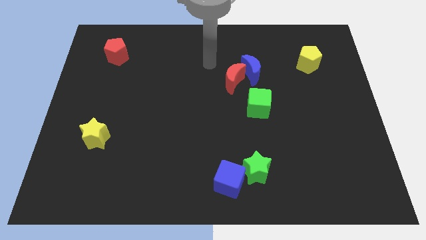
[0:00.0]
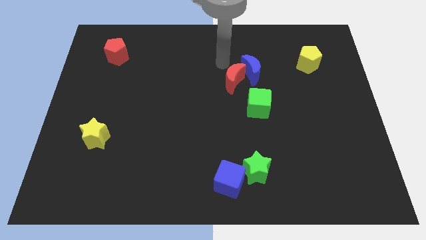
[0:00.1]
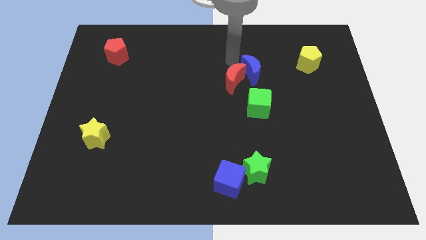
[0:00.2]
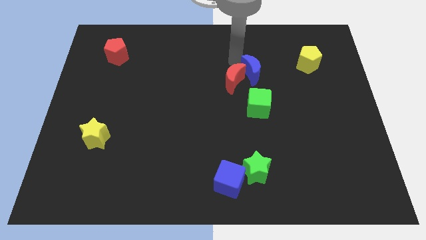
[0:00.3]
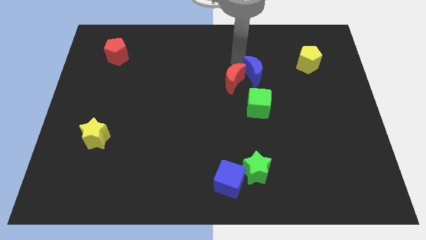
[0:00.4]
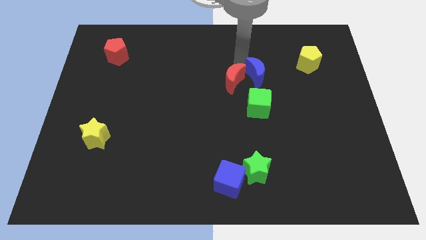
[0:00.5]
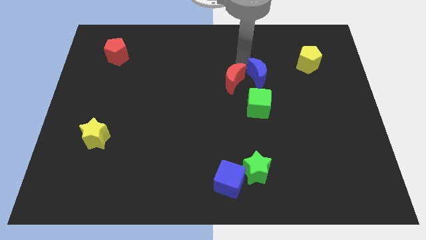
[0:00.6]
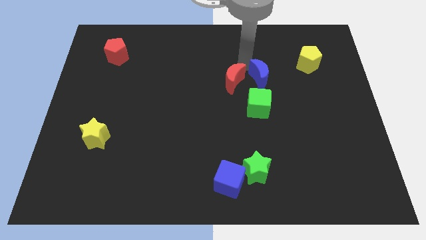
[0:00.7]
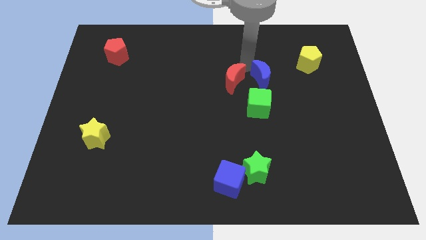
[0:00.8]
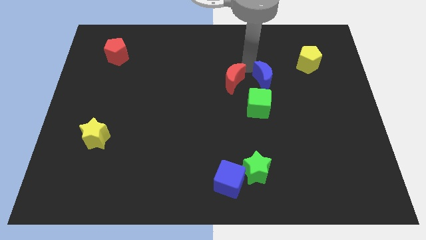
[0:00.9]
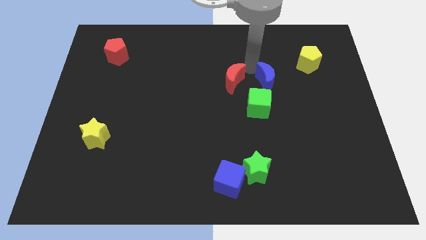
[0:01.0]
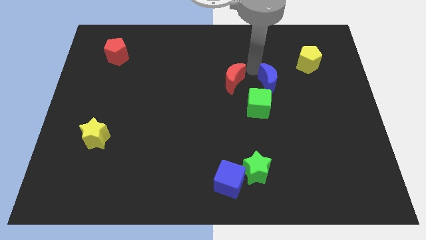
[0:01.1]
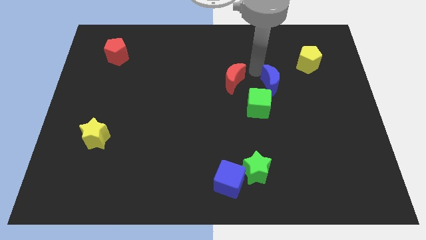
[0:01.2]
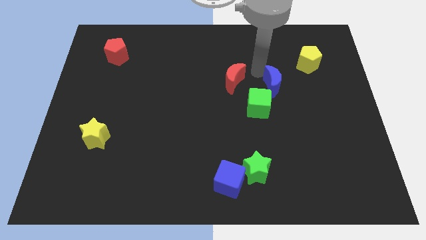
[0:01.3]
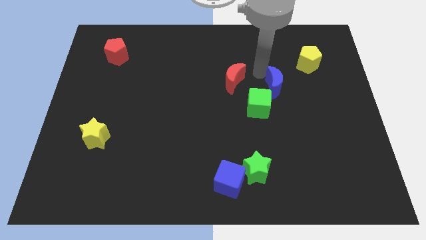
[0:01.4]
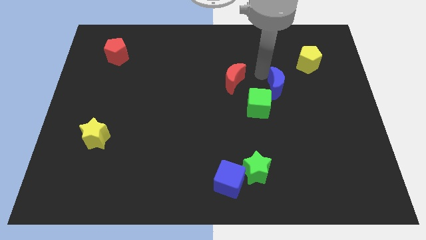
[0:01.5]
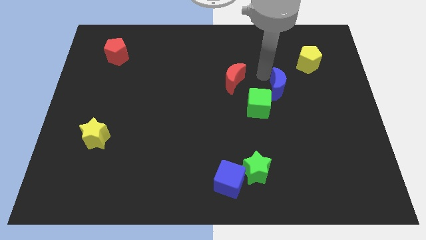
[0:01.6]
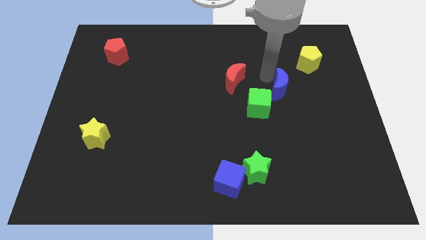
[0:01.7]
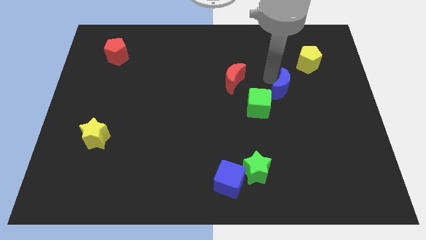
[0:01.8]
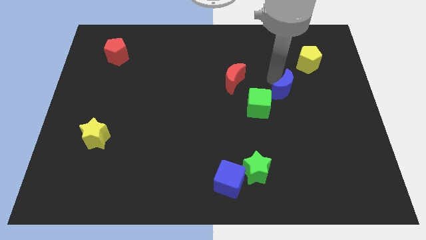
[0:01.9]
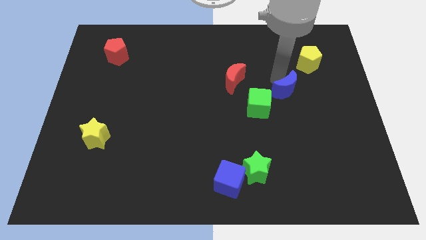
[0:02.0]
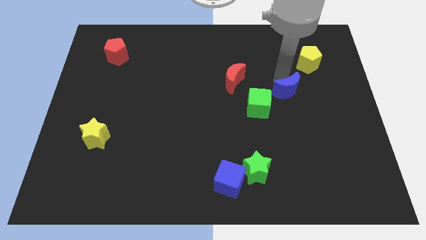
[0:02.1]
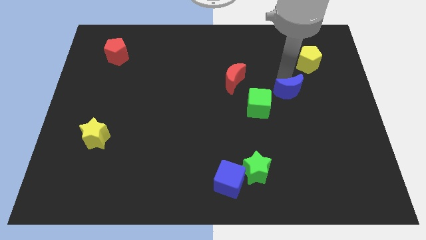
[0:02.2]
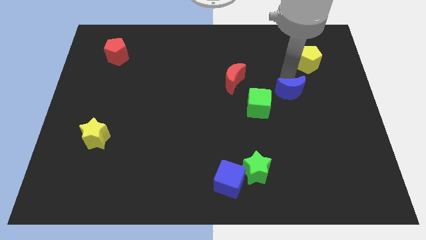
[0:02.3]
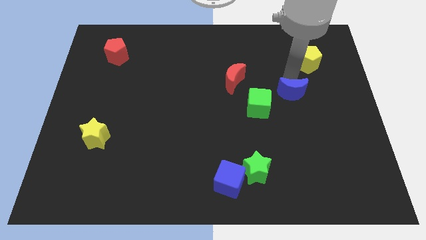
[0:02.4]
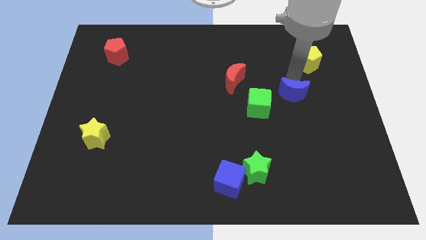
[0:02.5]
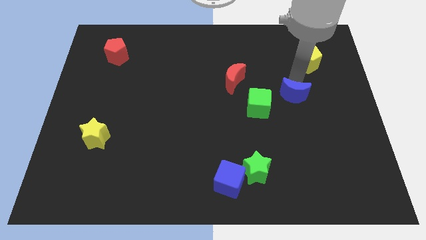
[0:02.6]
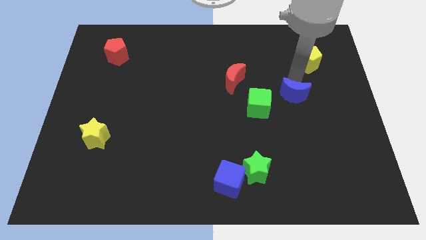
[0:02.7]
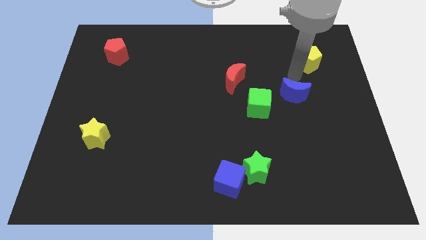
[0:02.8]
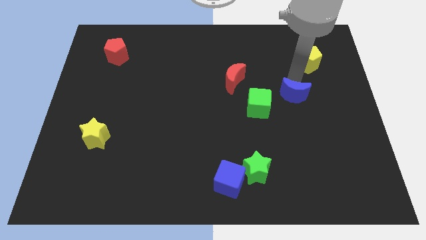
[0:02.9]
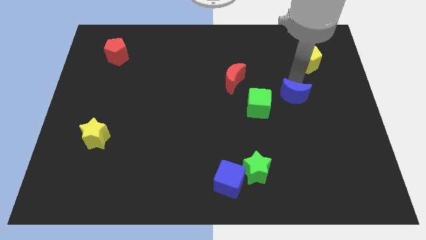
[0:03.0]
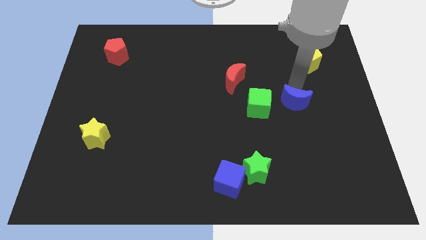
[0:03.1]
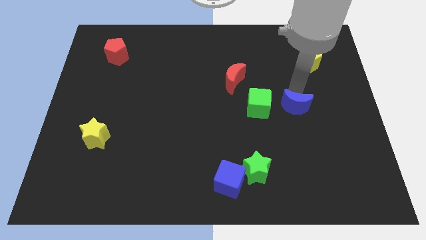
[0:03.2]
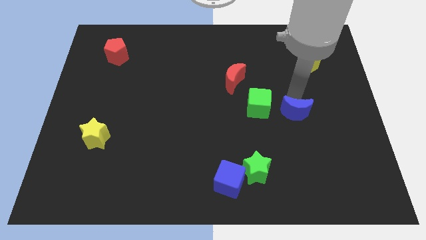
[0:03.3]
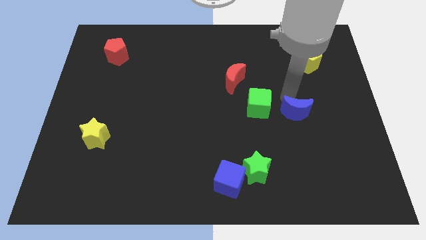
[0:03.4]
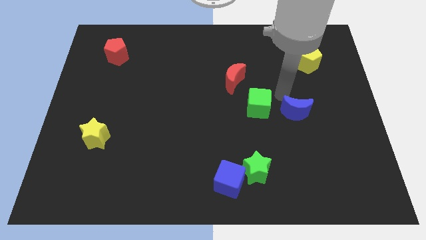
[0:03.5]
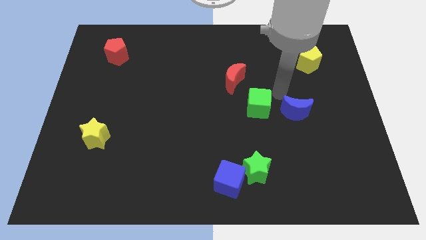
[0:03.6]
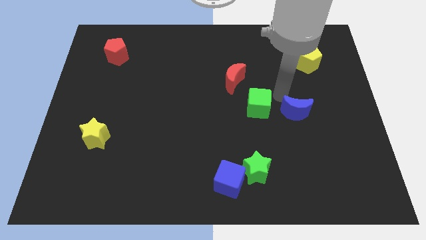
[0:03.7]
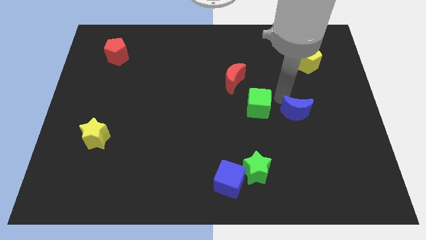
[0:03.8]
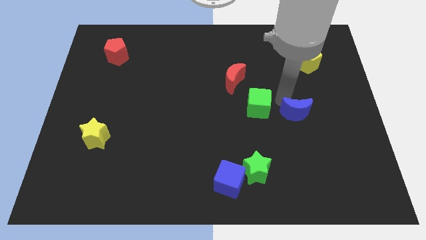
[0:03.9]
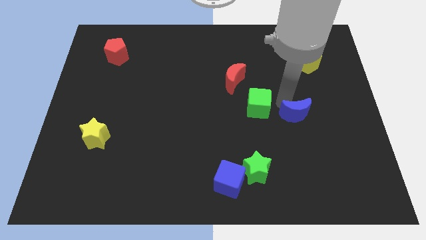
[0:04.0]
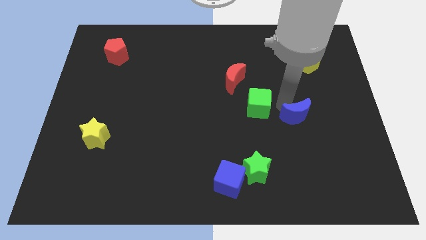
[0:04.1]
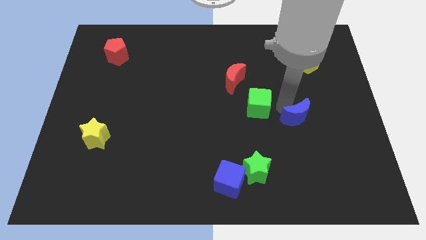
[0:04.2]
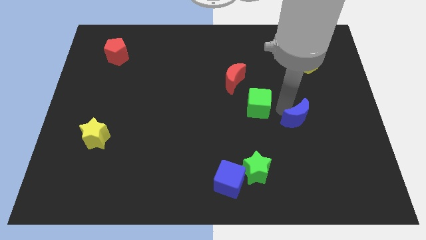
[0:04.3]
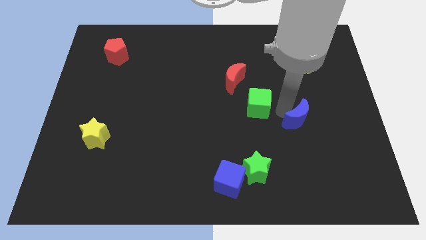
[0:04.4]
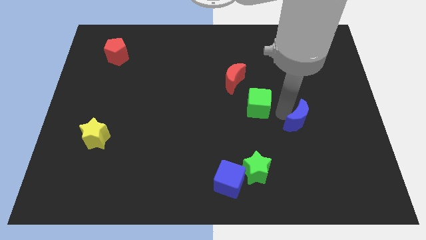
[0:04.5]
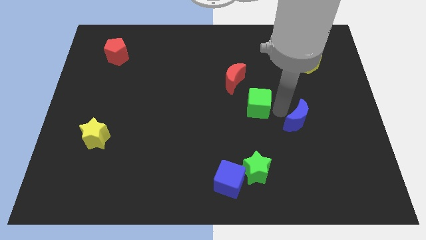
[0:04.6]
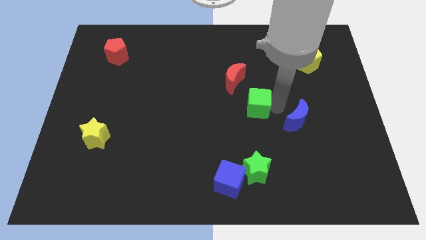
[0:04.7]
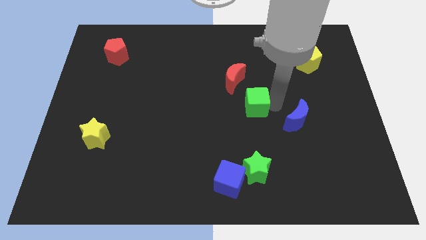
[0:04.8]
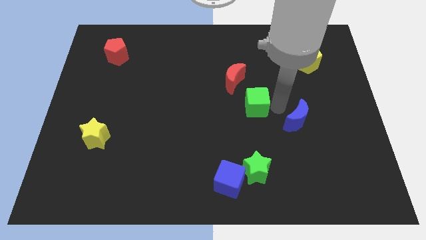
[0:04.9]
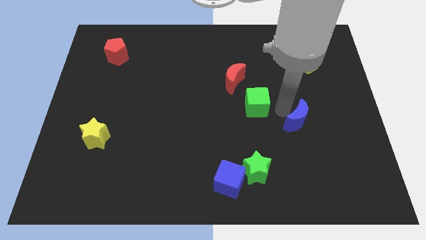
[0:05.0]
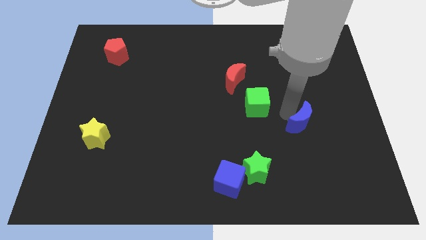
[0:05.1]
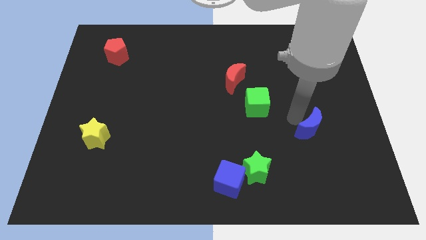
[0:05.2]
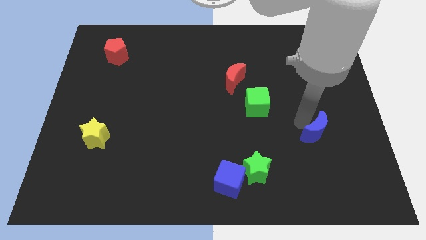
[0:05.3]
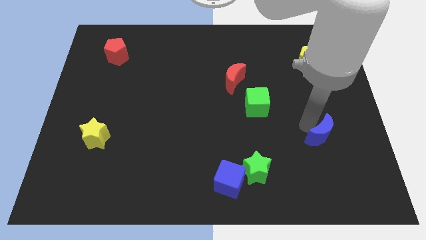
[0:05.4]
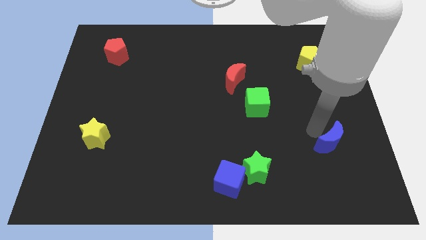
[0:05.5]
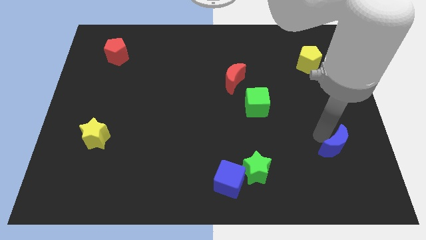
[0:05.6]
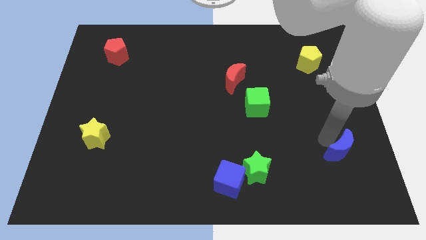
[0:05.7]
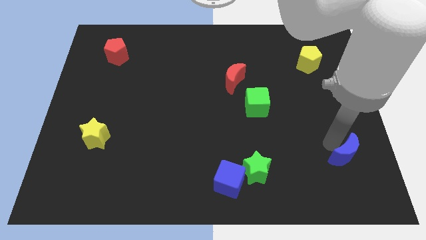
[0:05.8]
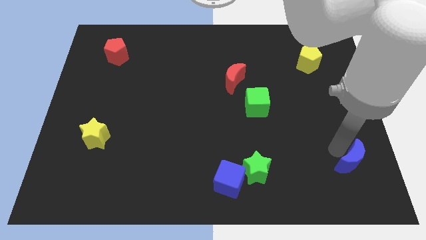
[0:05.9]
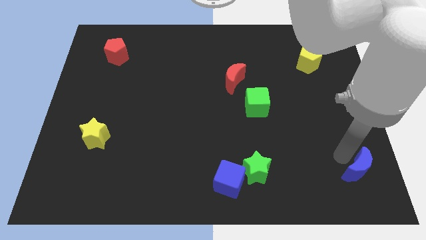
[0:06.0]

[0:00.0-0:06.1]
put the blue moon to the bottom right
